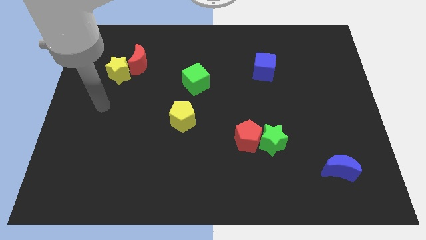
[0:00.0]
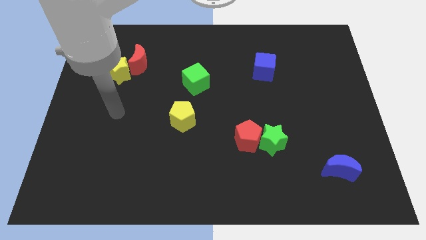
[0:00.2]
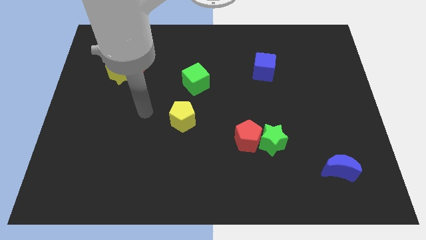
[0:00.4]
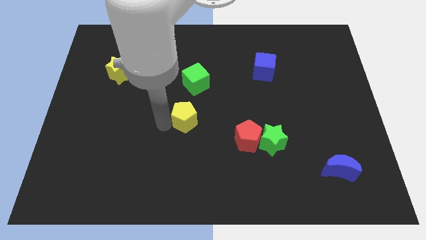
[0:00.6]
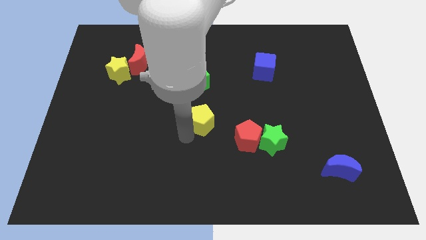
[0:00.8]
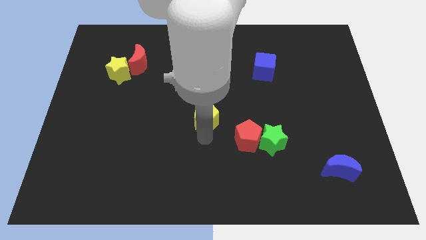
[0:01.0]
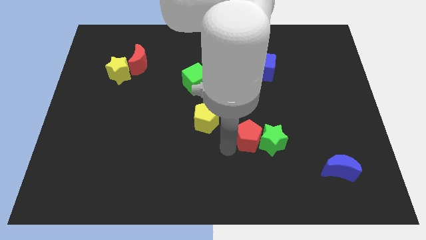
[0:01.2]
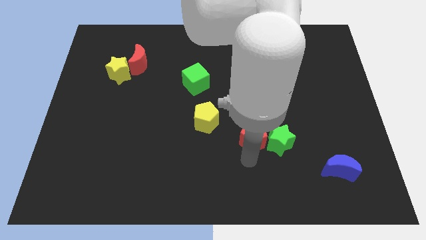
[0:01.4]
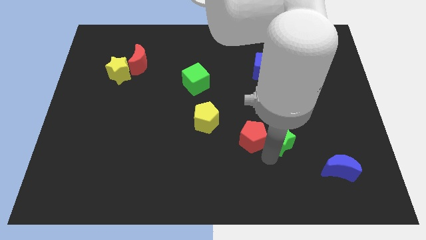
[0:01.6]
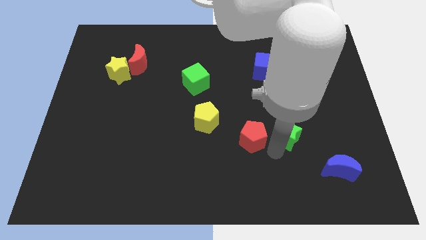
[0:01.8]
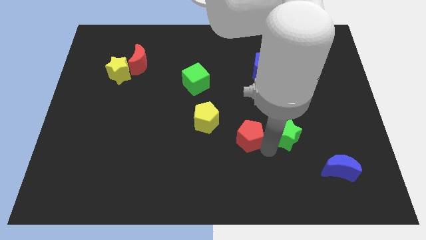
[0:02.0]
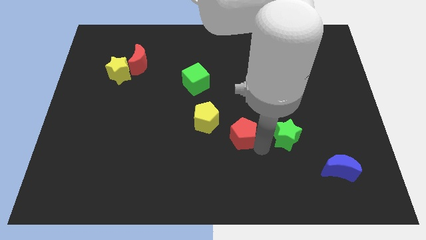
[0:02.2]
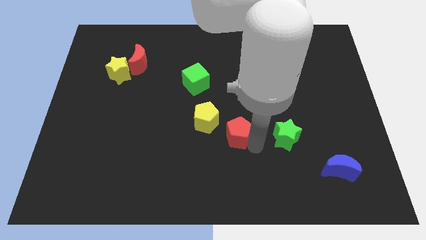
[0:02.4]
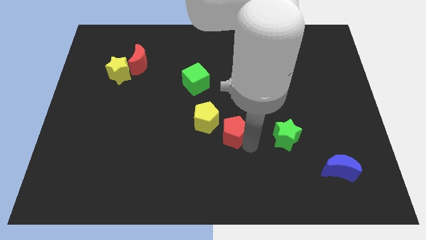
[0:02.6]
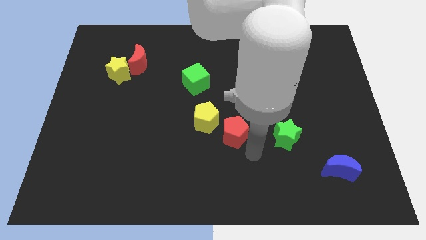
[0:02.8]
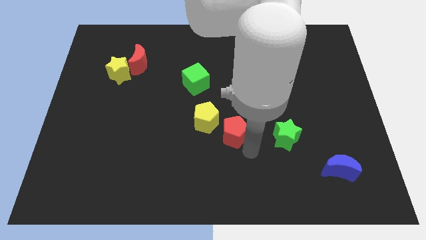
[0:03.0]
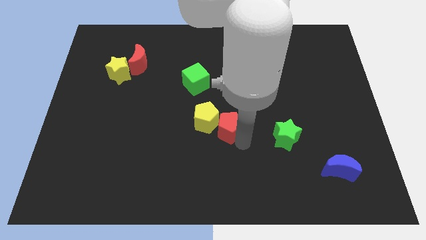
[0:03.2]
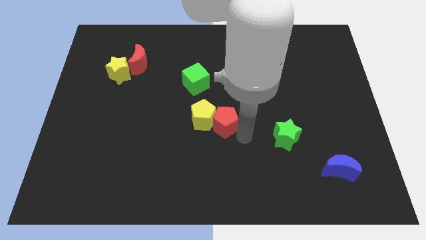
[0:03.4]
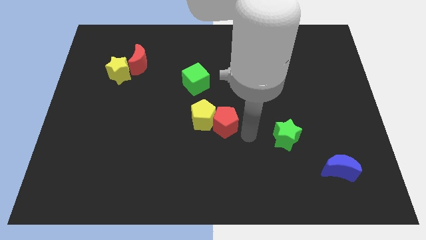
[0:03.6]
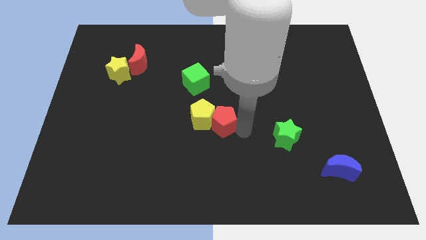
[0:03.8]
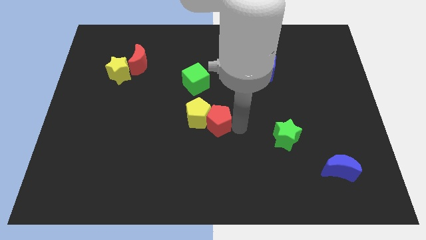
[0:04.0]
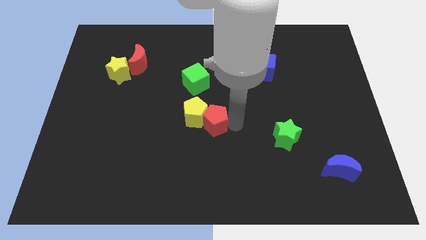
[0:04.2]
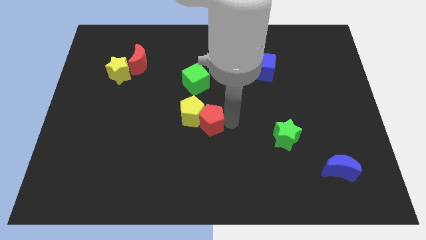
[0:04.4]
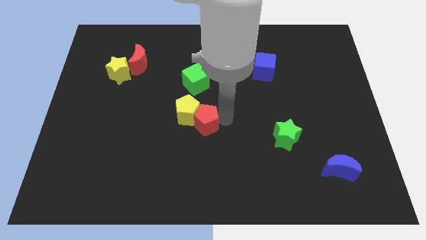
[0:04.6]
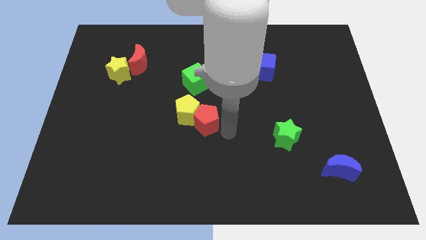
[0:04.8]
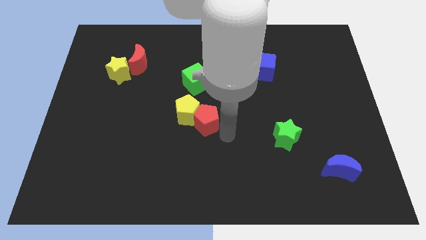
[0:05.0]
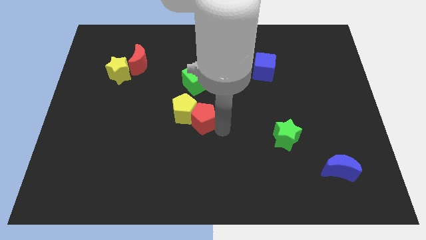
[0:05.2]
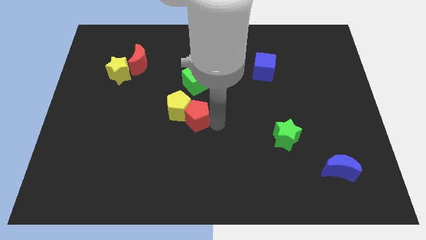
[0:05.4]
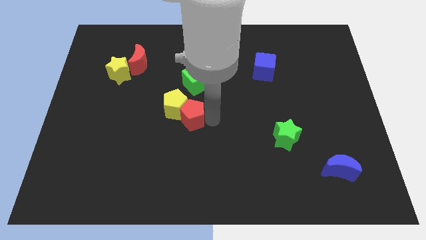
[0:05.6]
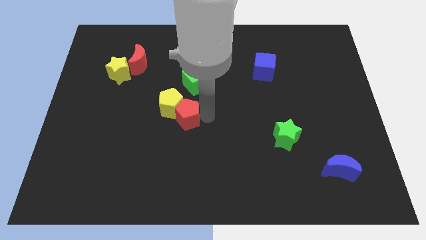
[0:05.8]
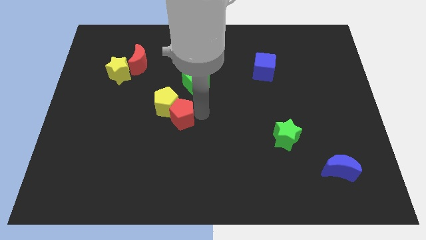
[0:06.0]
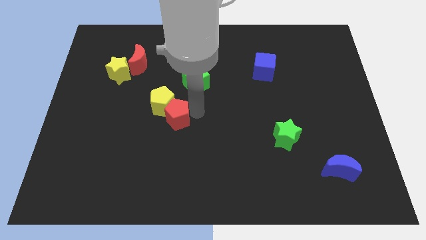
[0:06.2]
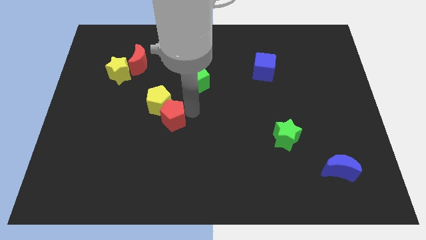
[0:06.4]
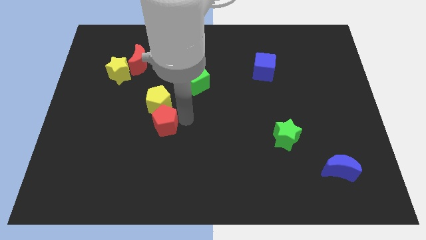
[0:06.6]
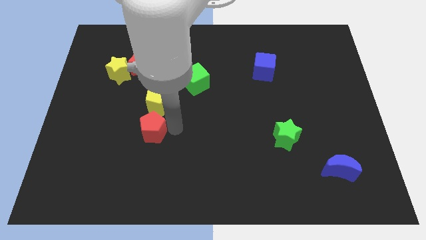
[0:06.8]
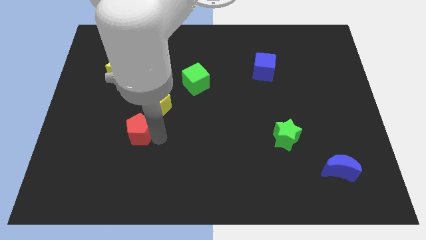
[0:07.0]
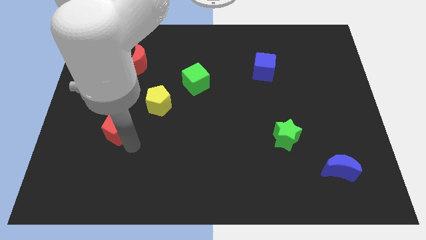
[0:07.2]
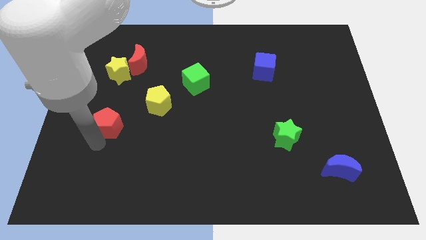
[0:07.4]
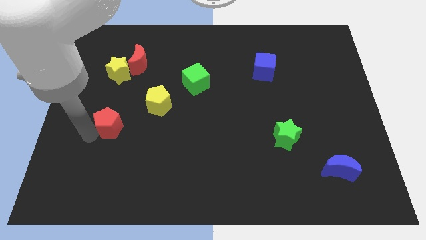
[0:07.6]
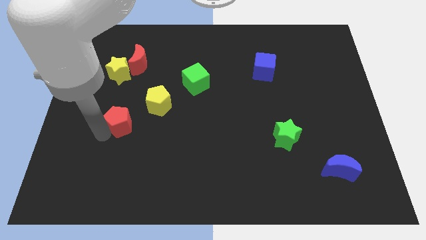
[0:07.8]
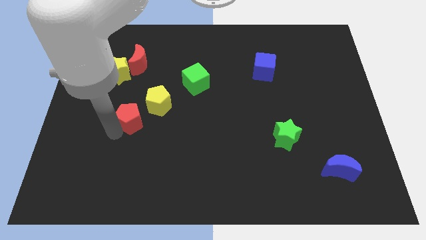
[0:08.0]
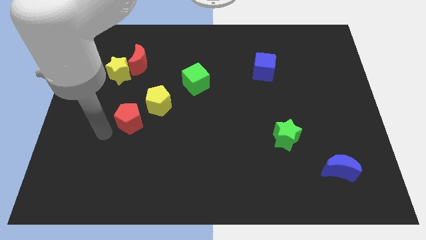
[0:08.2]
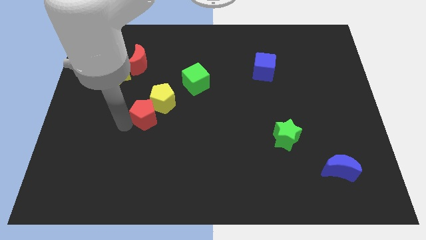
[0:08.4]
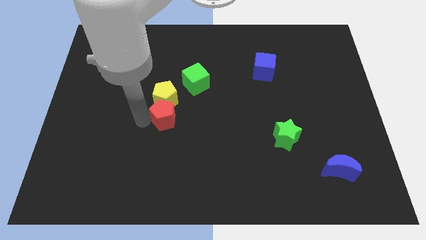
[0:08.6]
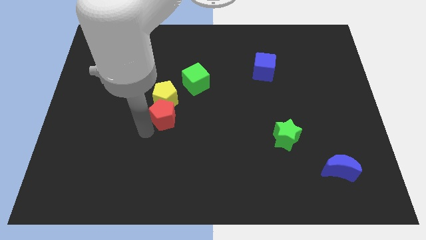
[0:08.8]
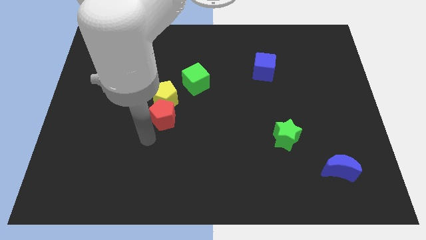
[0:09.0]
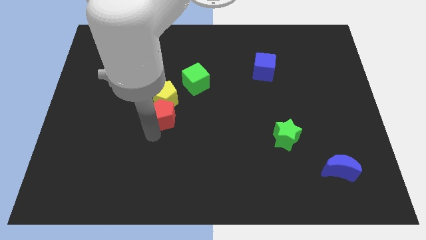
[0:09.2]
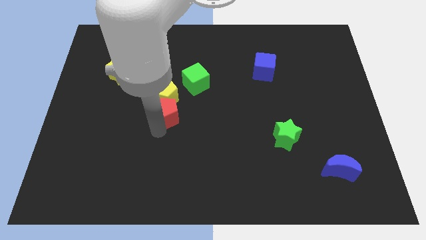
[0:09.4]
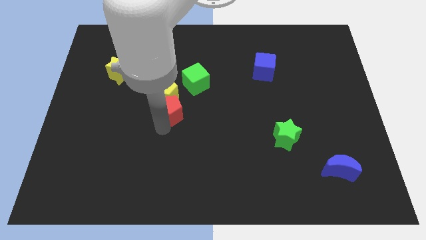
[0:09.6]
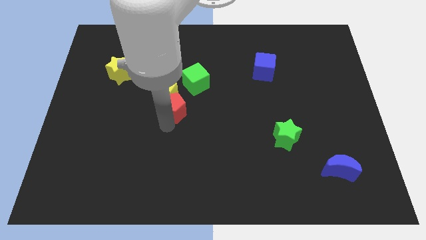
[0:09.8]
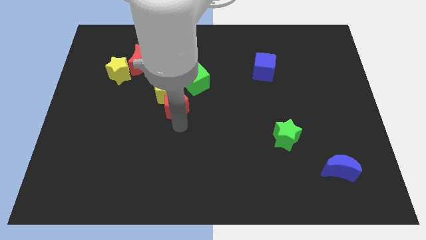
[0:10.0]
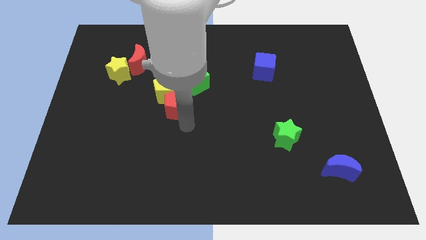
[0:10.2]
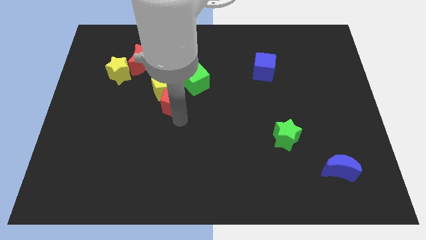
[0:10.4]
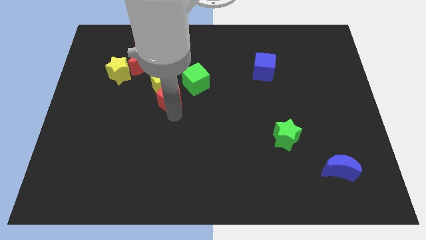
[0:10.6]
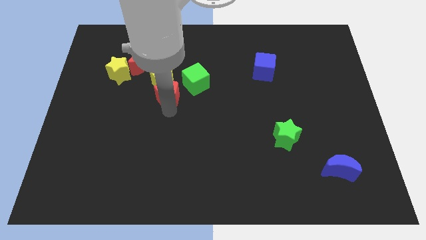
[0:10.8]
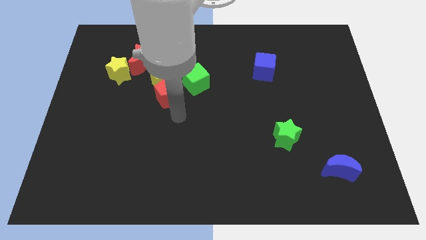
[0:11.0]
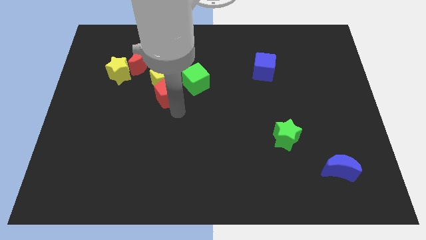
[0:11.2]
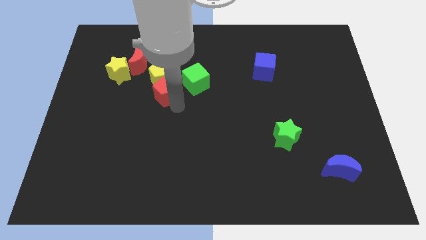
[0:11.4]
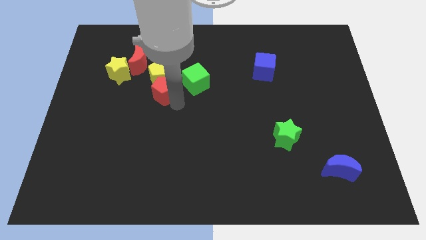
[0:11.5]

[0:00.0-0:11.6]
slide the red pentagon to the bottom right side of the red moon

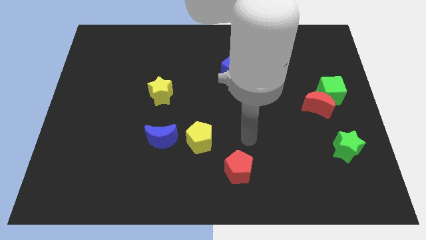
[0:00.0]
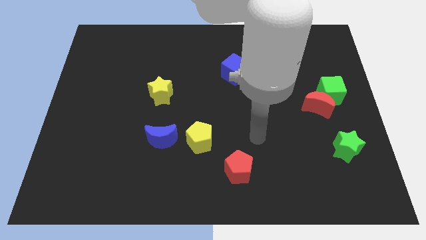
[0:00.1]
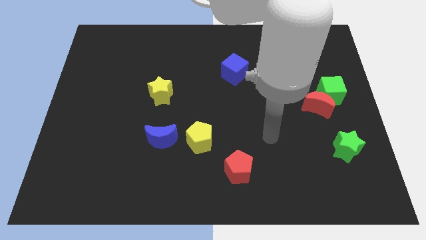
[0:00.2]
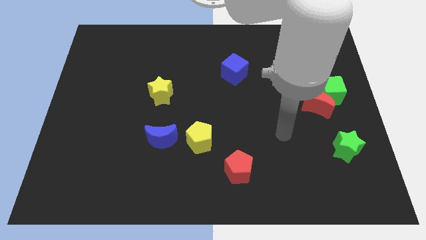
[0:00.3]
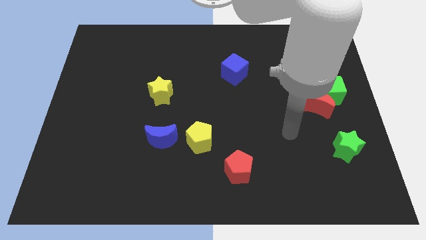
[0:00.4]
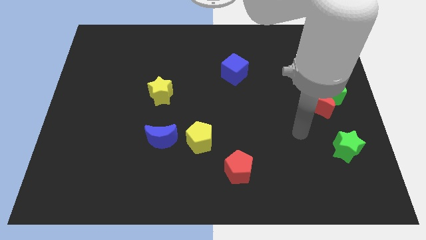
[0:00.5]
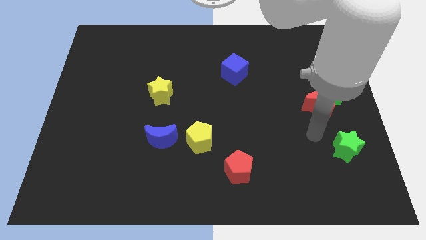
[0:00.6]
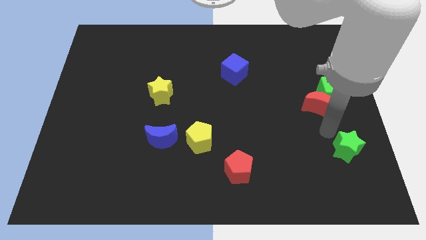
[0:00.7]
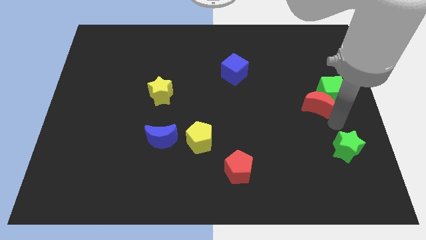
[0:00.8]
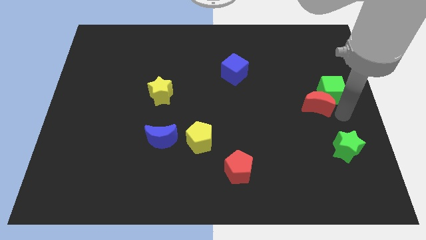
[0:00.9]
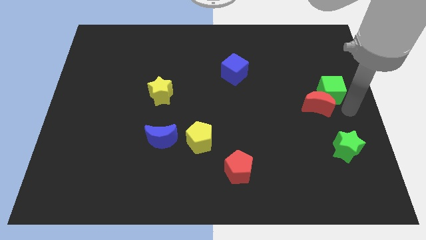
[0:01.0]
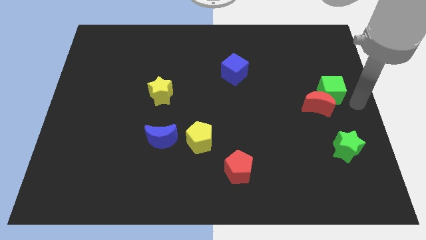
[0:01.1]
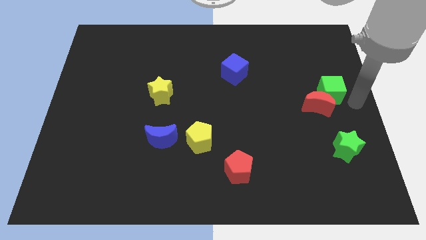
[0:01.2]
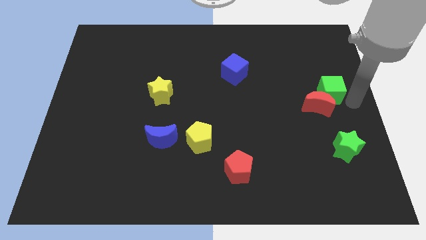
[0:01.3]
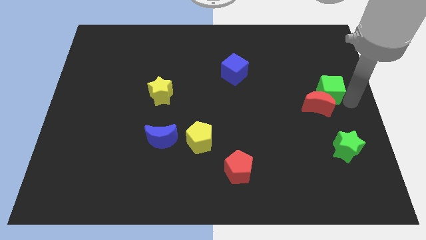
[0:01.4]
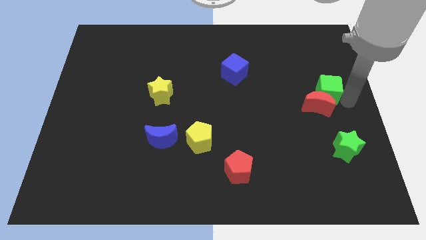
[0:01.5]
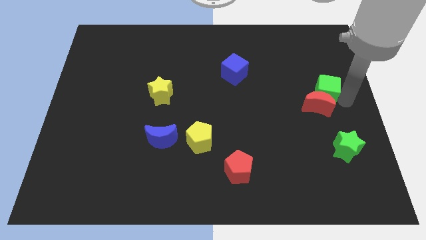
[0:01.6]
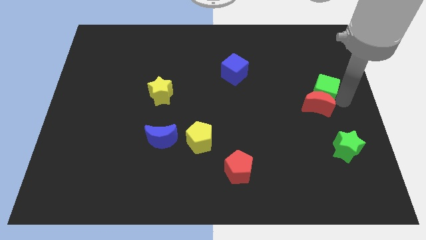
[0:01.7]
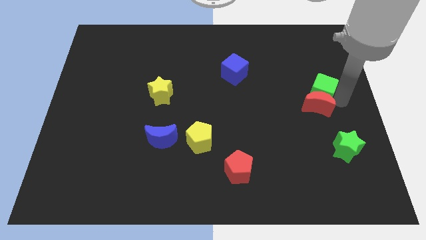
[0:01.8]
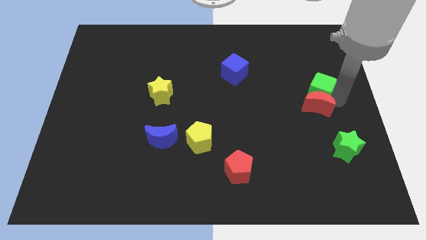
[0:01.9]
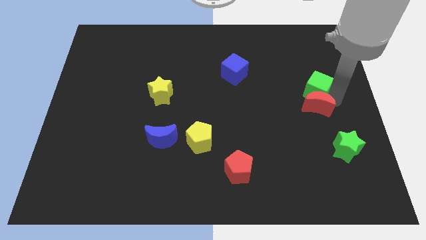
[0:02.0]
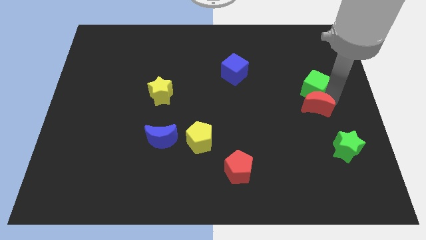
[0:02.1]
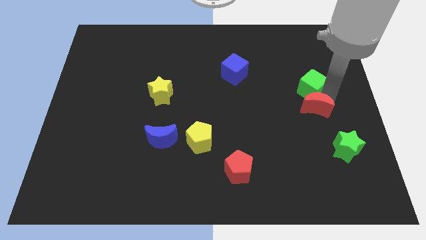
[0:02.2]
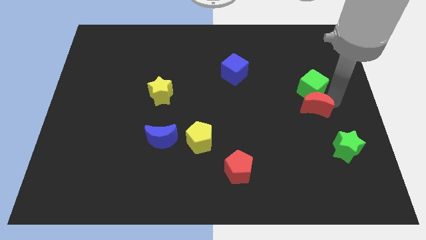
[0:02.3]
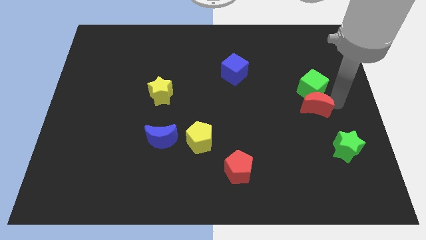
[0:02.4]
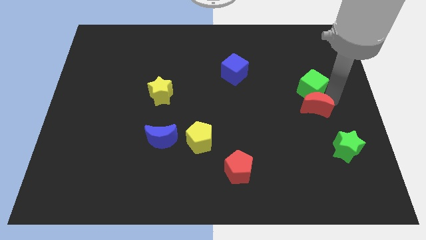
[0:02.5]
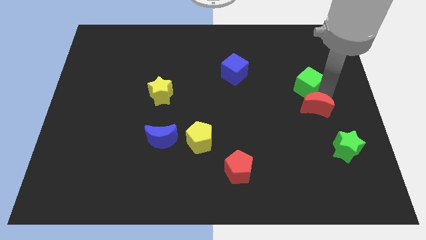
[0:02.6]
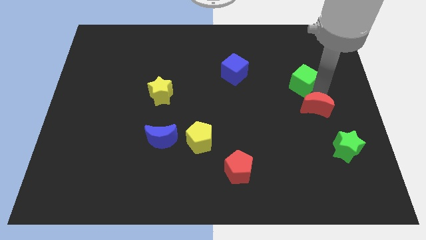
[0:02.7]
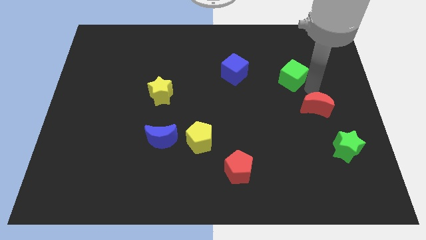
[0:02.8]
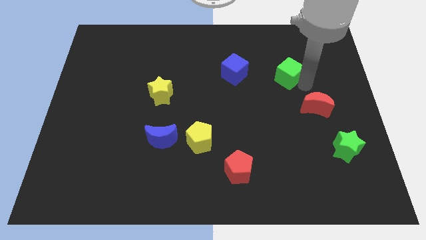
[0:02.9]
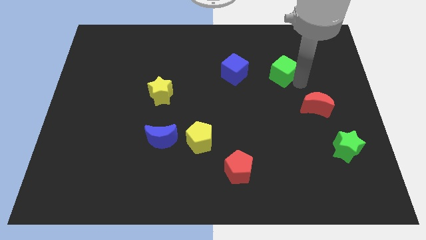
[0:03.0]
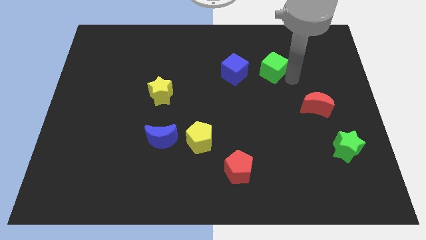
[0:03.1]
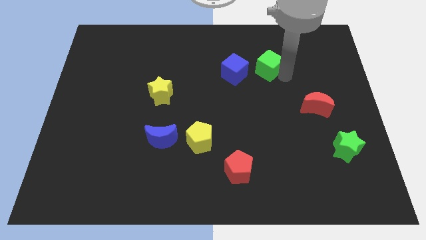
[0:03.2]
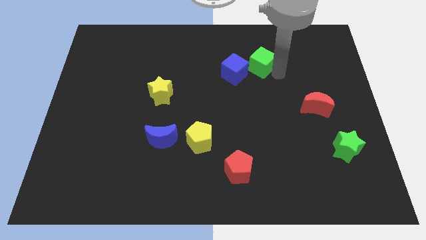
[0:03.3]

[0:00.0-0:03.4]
move the green cube diagonally up and to the right of the blue cube
